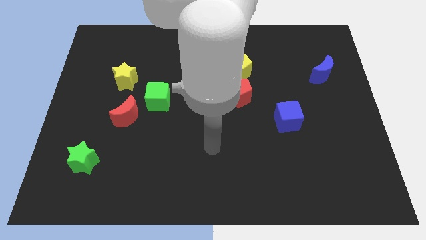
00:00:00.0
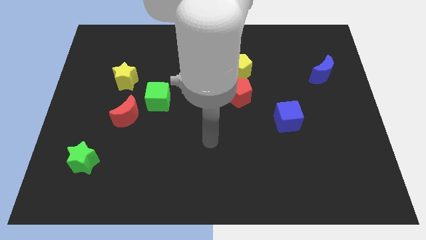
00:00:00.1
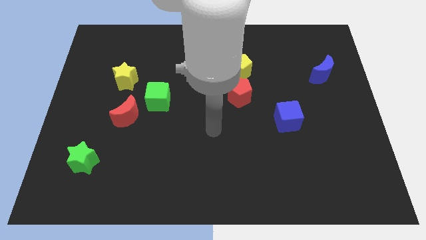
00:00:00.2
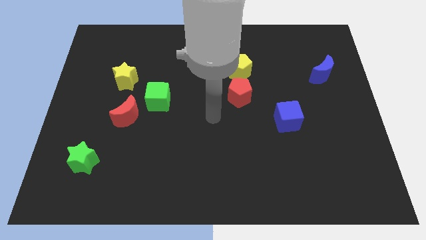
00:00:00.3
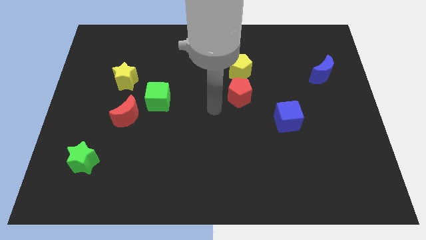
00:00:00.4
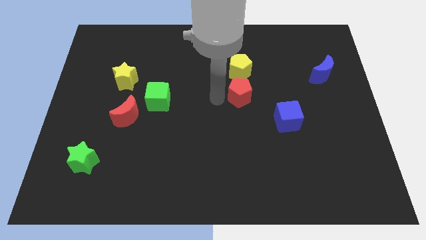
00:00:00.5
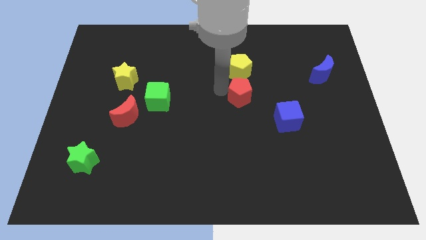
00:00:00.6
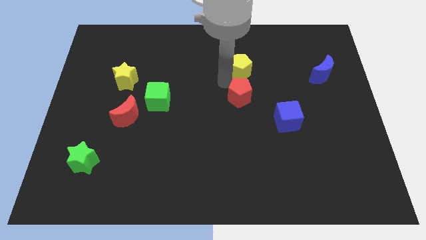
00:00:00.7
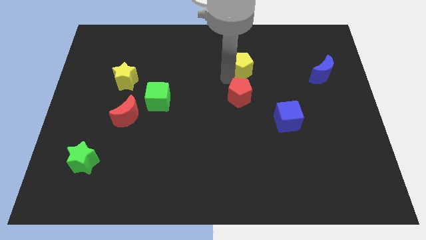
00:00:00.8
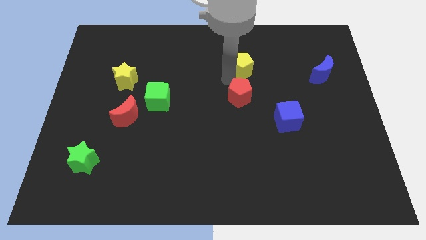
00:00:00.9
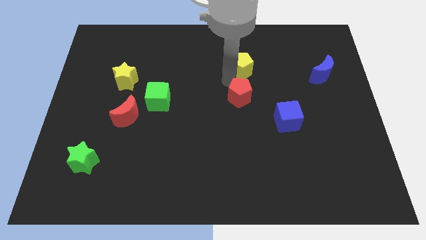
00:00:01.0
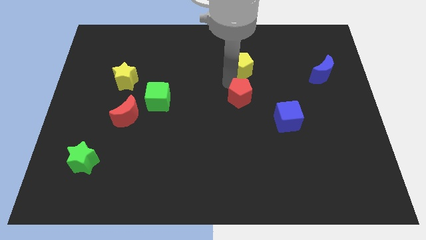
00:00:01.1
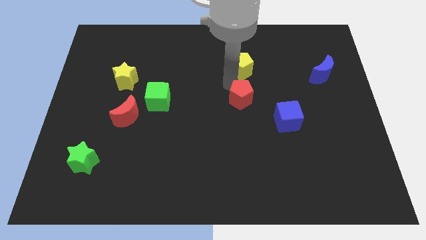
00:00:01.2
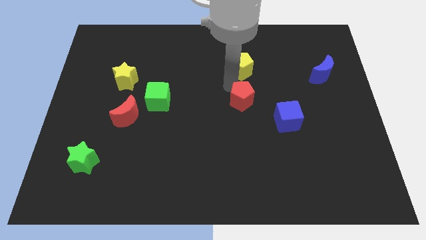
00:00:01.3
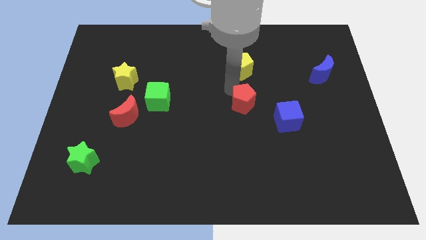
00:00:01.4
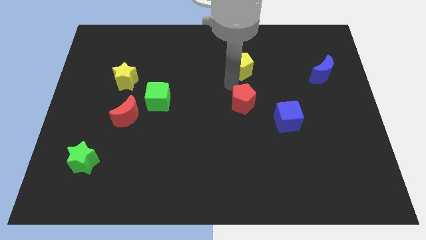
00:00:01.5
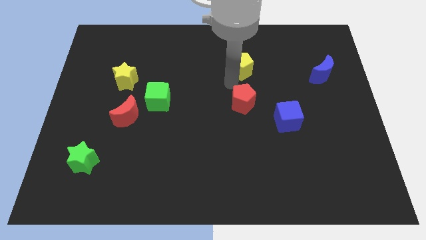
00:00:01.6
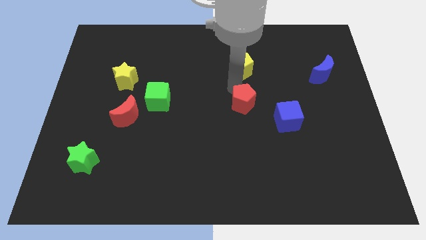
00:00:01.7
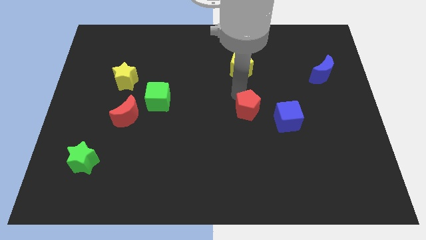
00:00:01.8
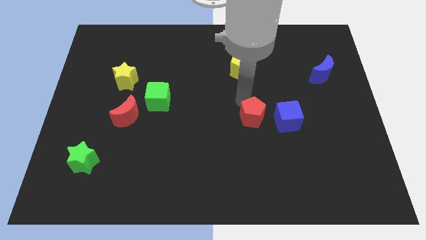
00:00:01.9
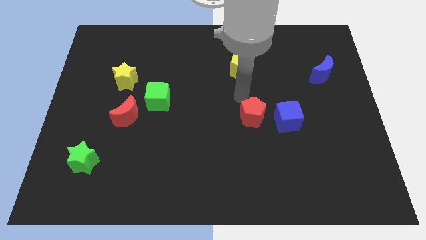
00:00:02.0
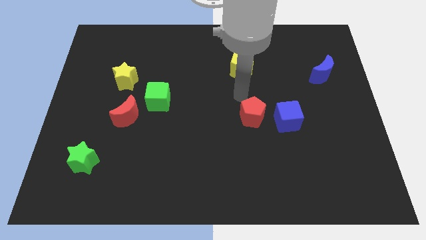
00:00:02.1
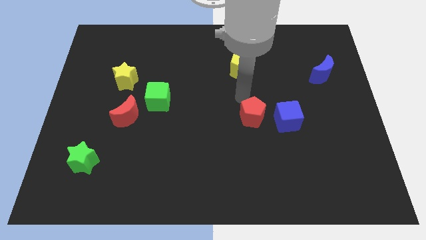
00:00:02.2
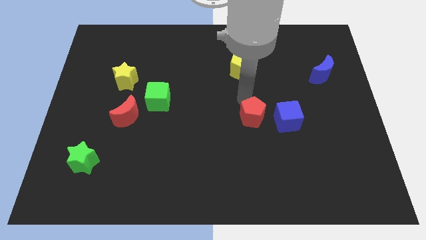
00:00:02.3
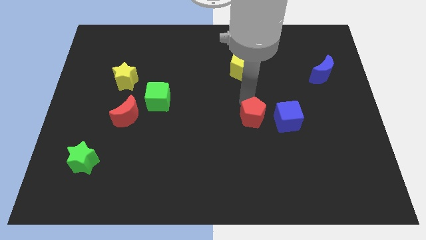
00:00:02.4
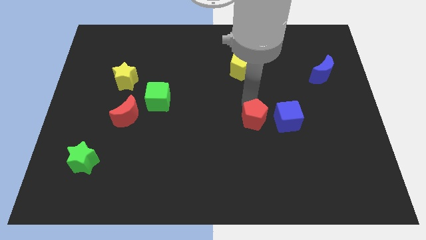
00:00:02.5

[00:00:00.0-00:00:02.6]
slide the red pentagon slightly diagonally down and right

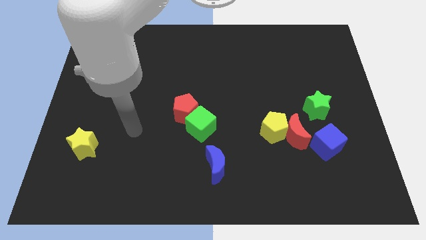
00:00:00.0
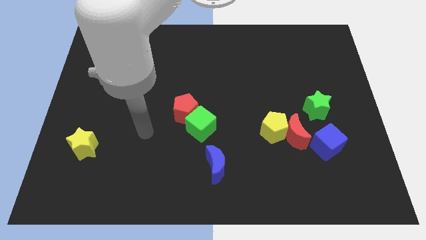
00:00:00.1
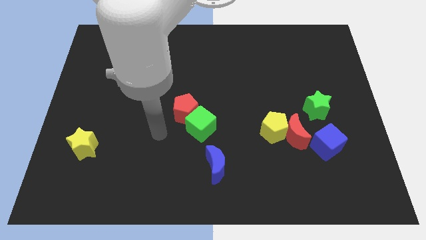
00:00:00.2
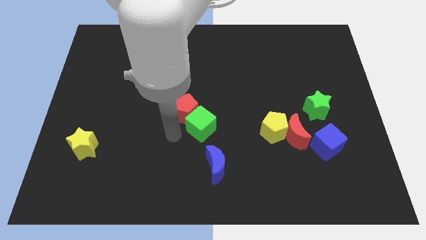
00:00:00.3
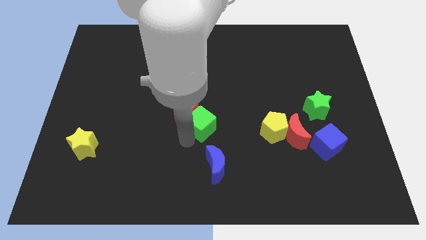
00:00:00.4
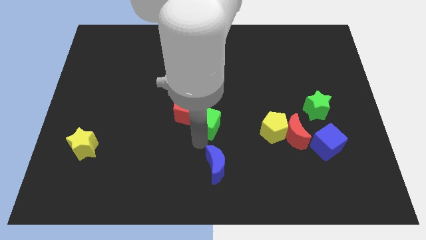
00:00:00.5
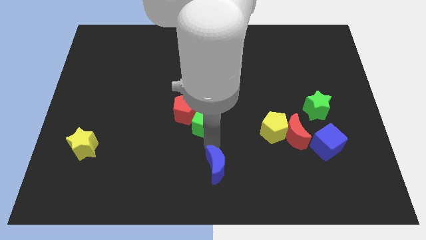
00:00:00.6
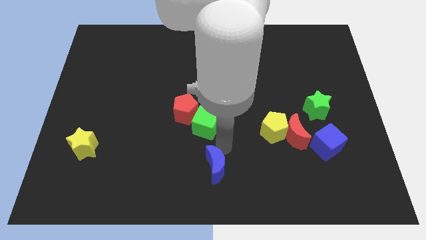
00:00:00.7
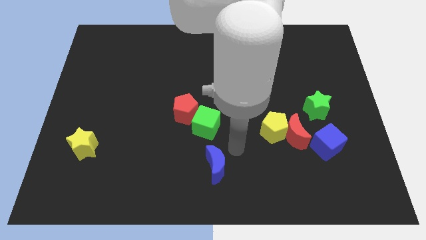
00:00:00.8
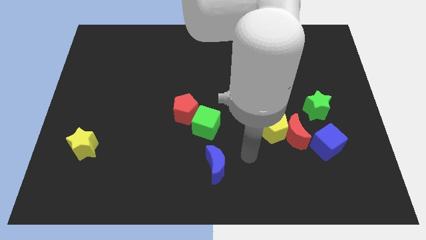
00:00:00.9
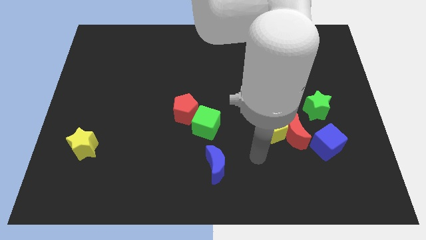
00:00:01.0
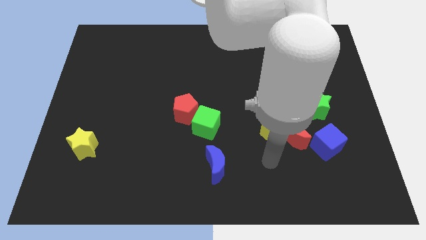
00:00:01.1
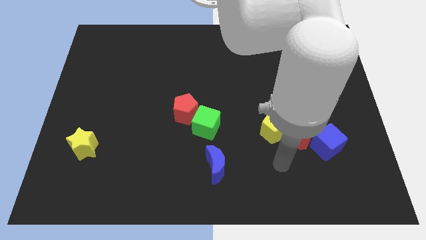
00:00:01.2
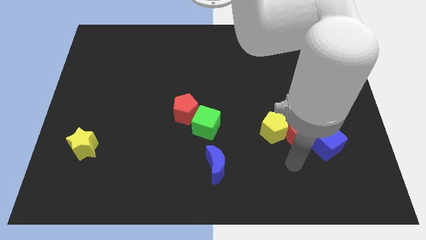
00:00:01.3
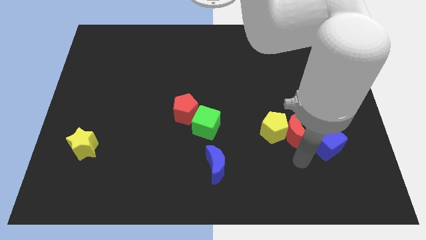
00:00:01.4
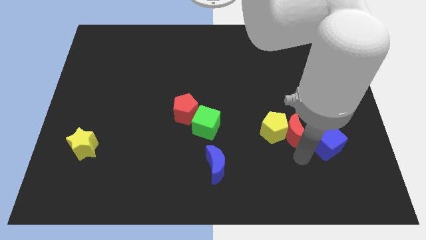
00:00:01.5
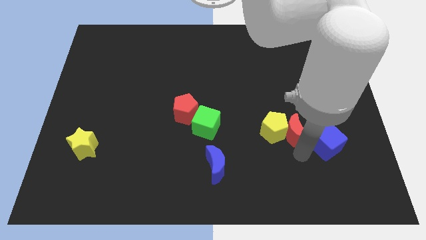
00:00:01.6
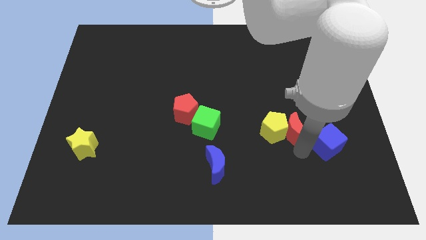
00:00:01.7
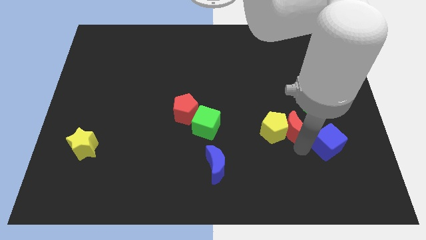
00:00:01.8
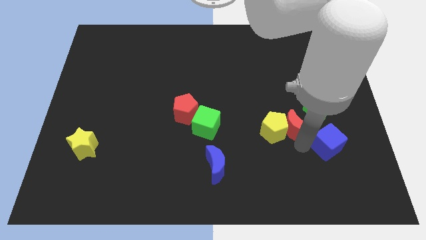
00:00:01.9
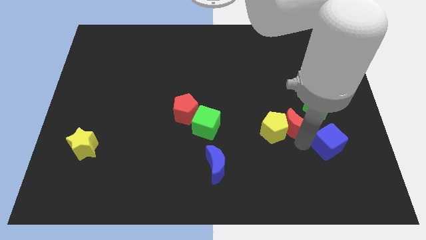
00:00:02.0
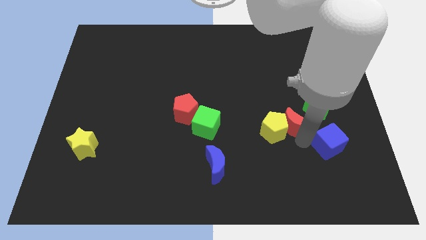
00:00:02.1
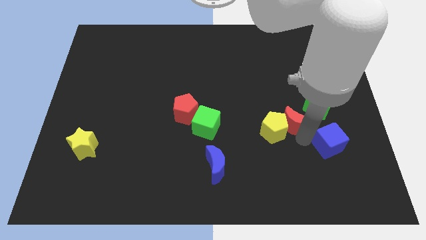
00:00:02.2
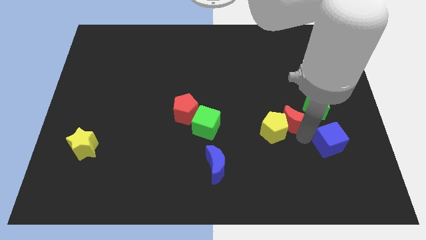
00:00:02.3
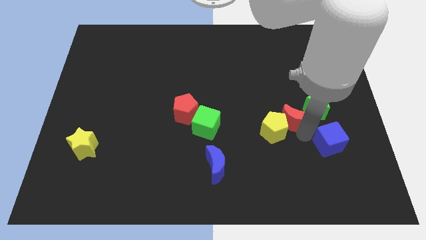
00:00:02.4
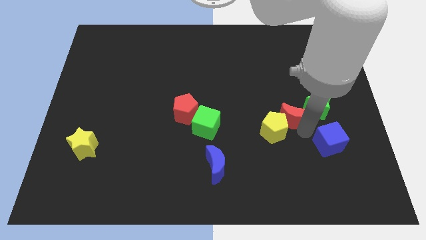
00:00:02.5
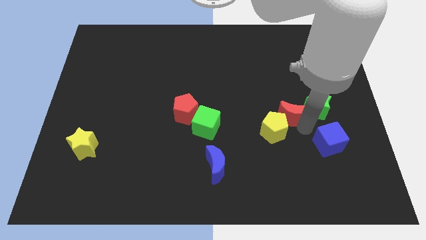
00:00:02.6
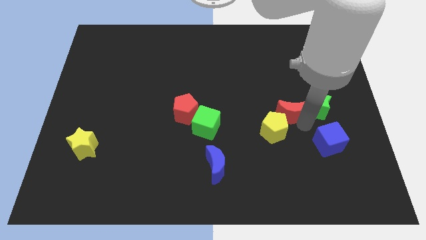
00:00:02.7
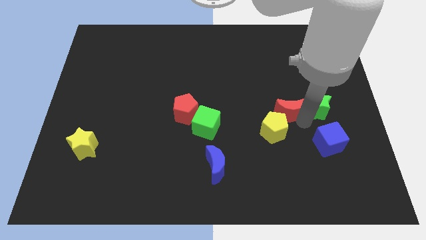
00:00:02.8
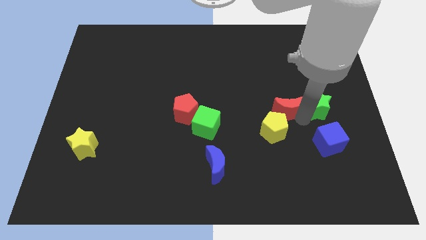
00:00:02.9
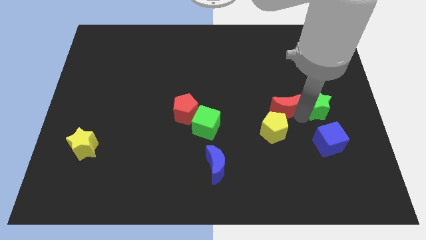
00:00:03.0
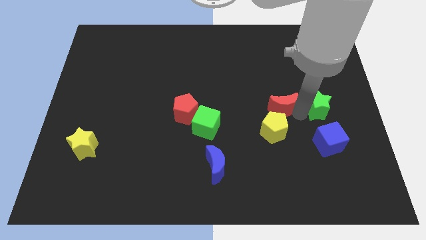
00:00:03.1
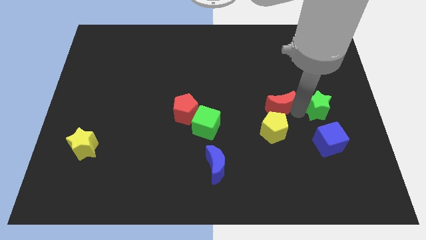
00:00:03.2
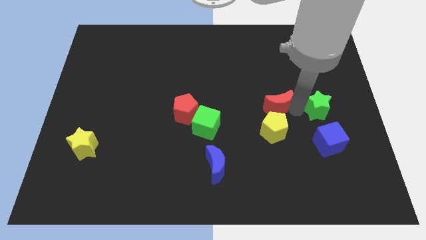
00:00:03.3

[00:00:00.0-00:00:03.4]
slightly push the red moon diagonally up and to the left

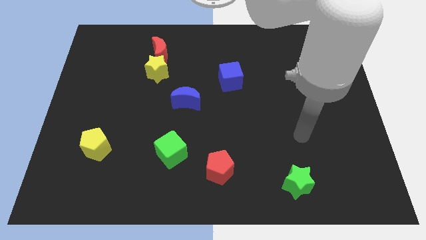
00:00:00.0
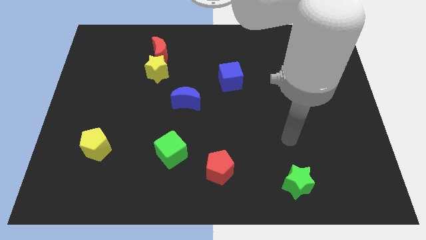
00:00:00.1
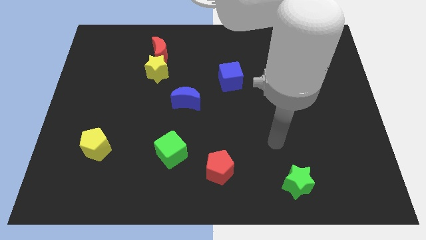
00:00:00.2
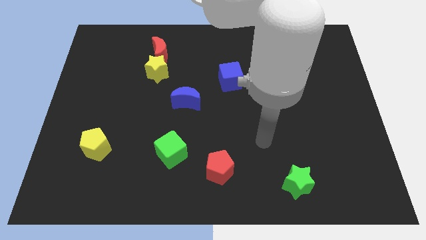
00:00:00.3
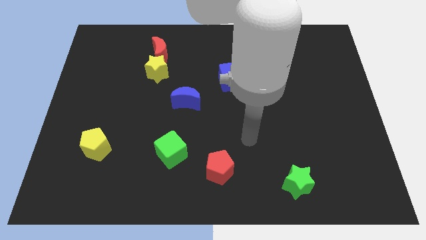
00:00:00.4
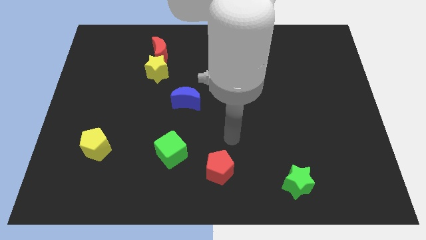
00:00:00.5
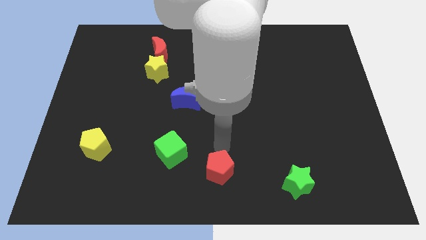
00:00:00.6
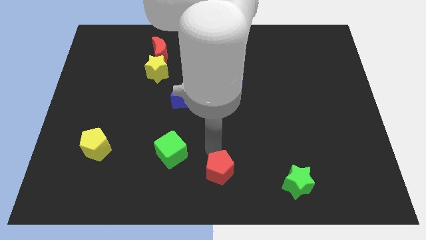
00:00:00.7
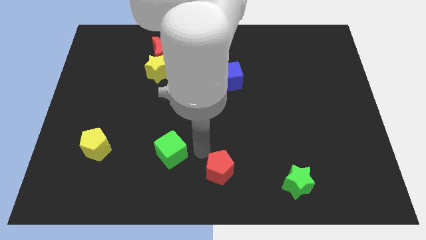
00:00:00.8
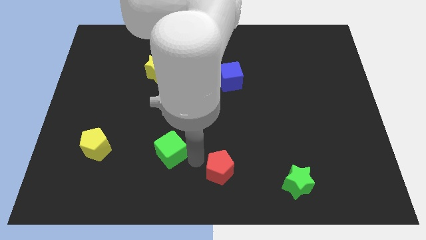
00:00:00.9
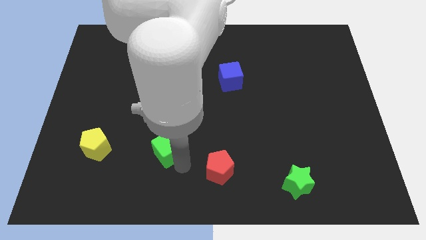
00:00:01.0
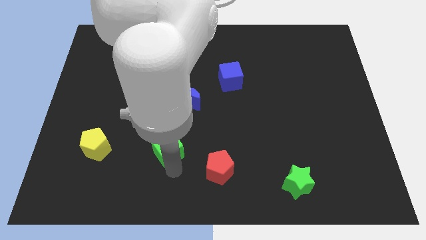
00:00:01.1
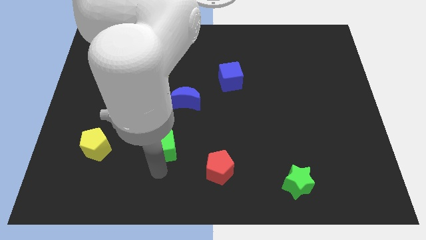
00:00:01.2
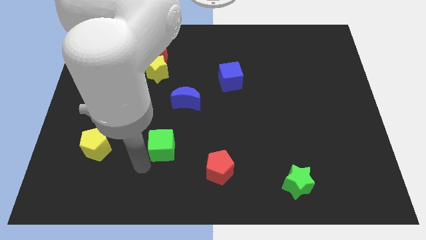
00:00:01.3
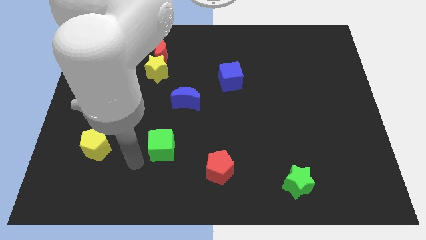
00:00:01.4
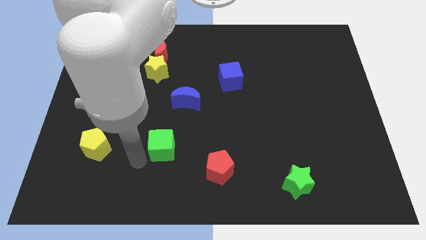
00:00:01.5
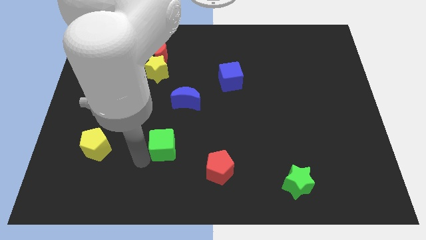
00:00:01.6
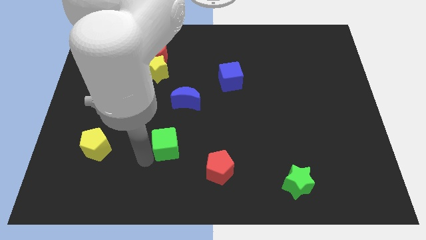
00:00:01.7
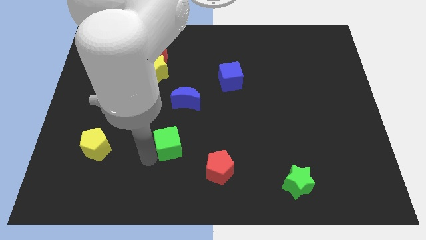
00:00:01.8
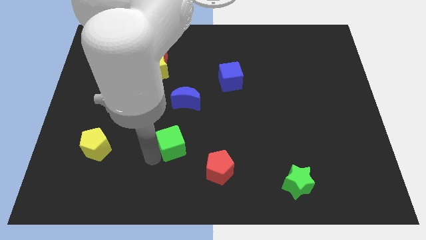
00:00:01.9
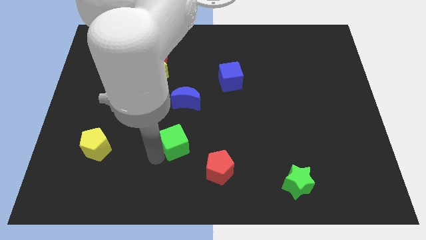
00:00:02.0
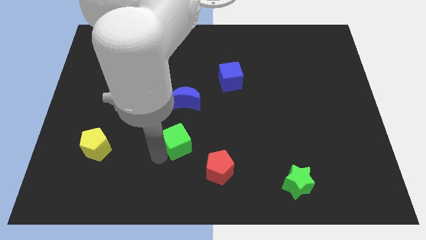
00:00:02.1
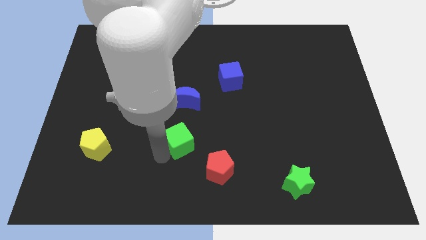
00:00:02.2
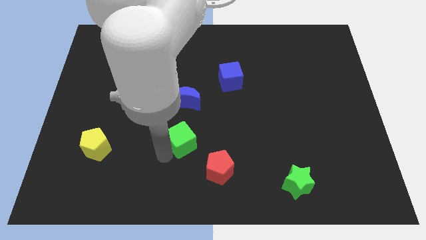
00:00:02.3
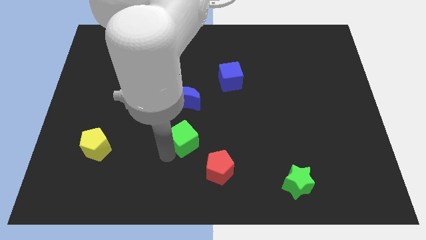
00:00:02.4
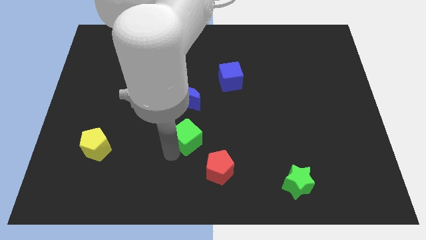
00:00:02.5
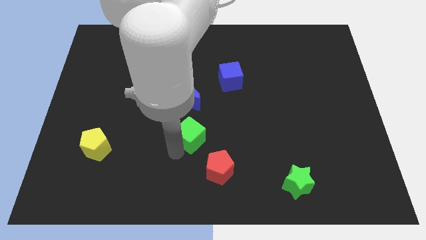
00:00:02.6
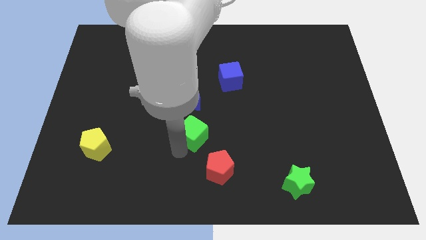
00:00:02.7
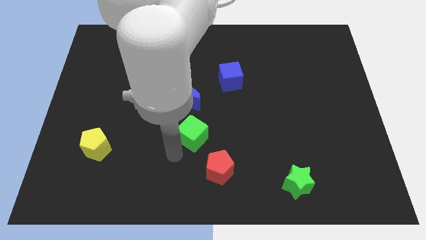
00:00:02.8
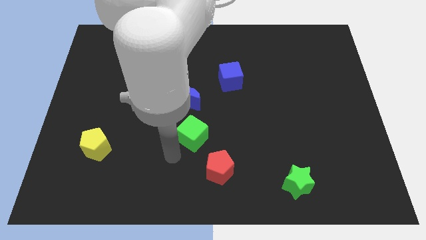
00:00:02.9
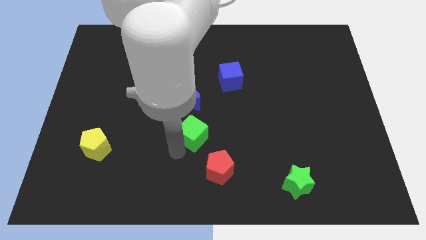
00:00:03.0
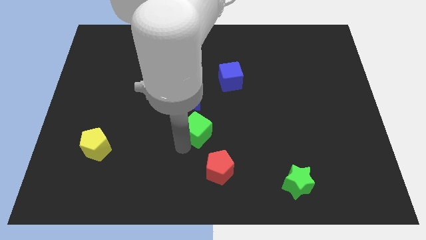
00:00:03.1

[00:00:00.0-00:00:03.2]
push the green cube diagonally up and right a little
